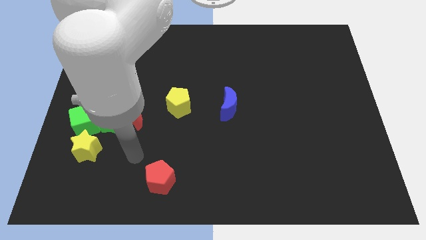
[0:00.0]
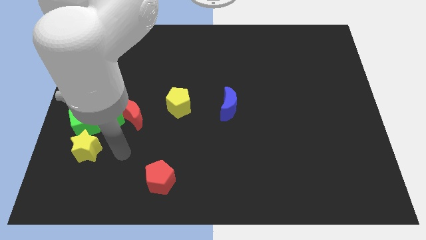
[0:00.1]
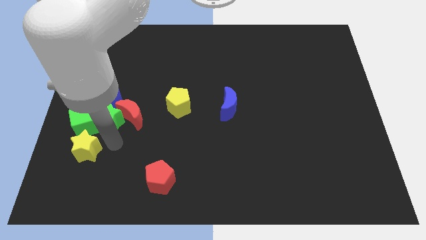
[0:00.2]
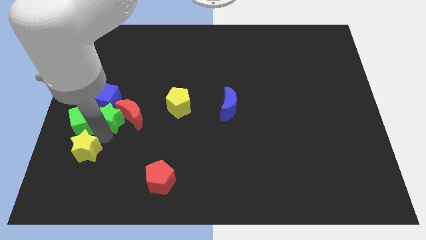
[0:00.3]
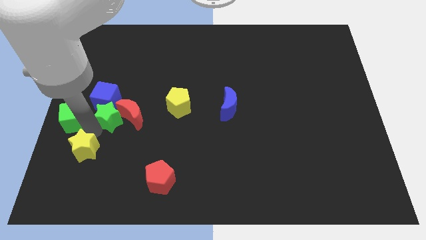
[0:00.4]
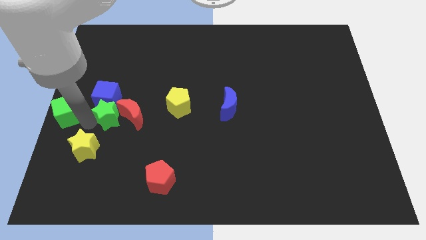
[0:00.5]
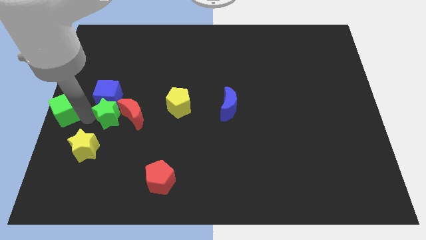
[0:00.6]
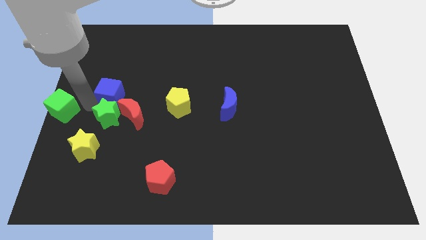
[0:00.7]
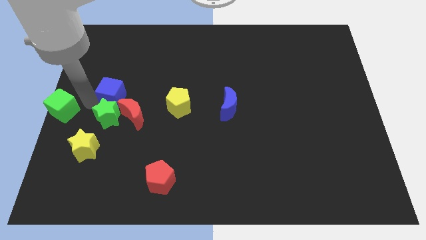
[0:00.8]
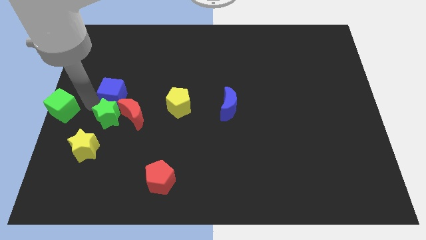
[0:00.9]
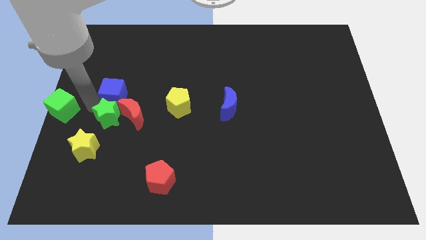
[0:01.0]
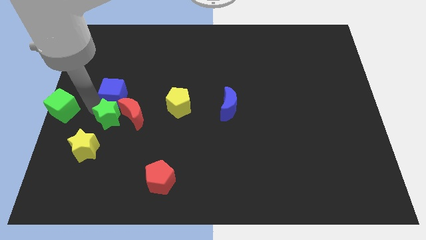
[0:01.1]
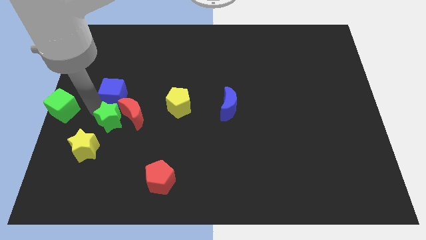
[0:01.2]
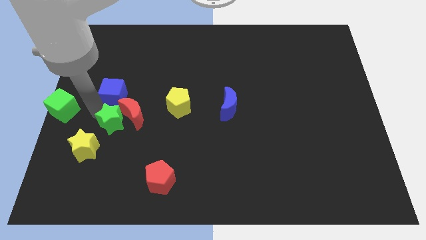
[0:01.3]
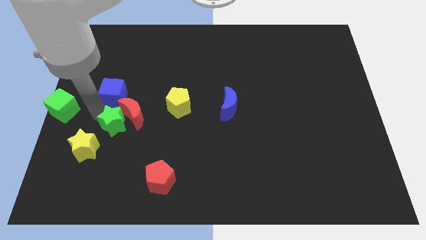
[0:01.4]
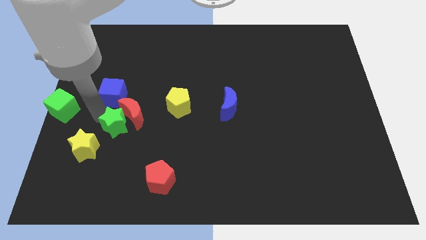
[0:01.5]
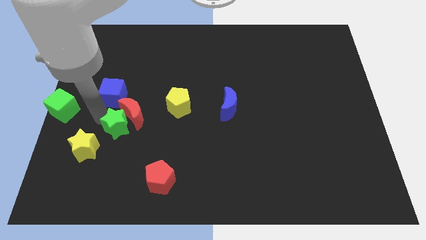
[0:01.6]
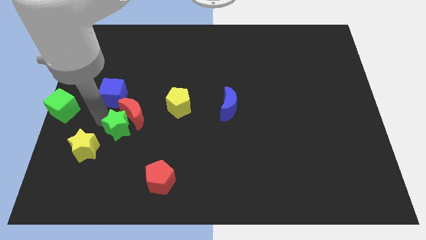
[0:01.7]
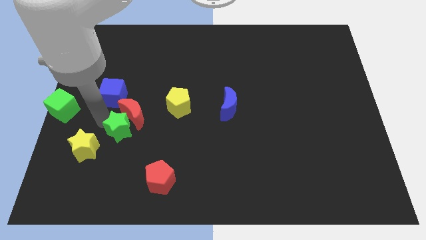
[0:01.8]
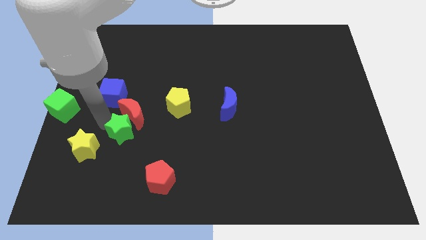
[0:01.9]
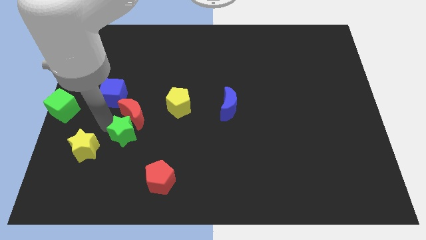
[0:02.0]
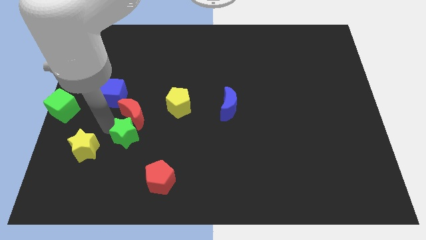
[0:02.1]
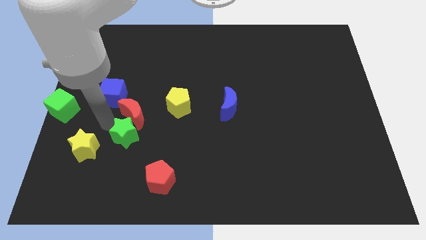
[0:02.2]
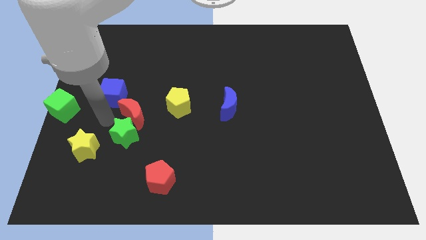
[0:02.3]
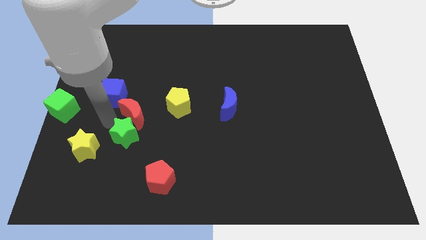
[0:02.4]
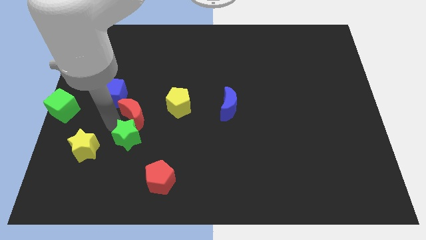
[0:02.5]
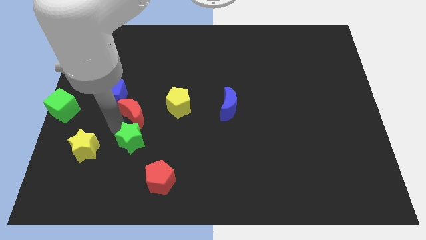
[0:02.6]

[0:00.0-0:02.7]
pull the green star apart from the group

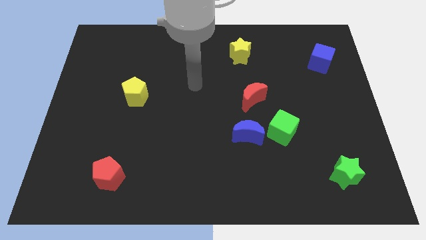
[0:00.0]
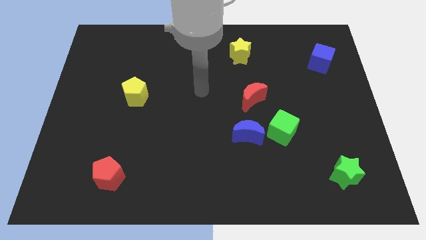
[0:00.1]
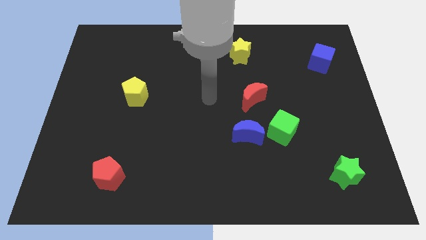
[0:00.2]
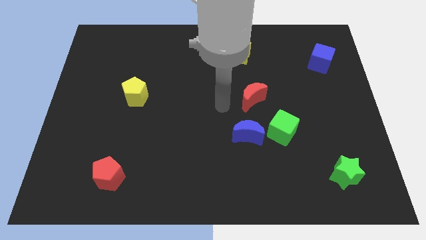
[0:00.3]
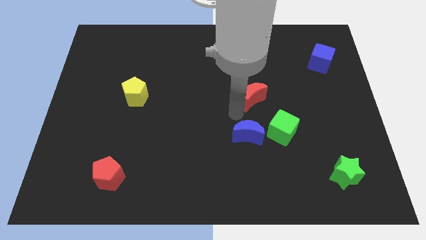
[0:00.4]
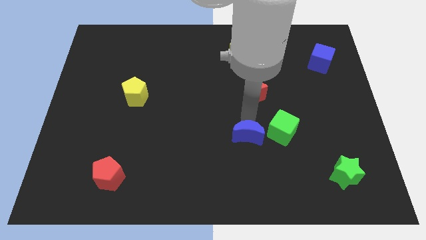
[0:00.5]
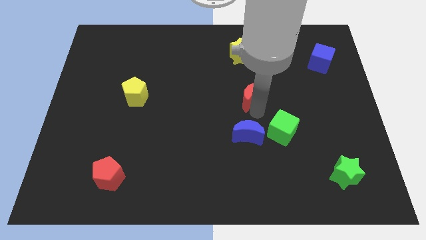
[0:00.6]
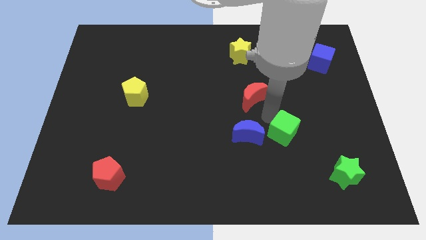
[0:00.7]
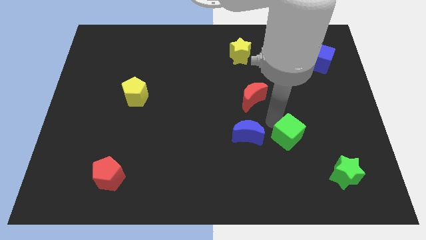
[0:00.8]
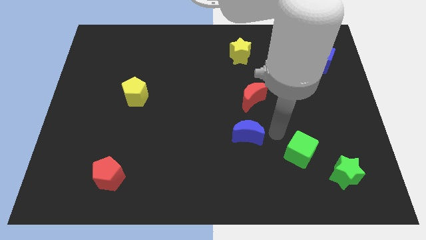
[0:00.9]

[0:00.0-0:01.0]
move the blue moon away from the green cube

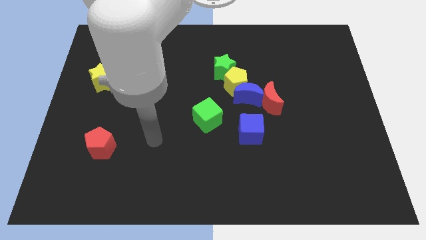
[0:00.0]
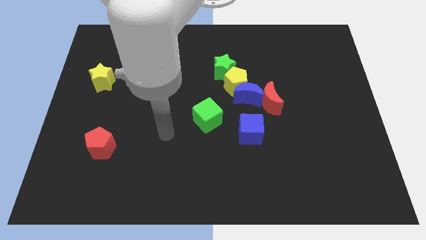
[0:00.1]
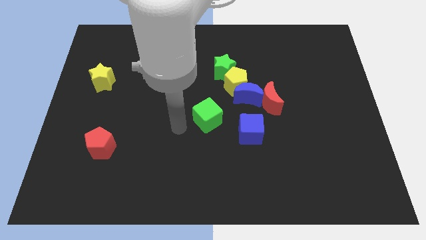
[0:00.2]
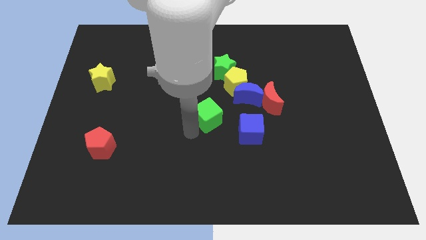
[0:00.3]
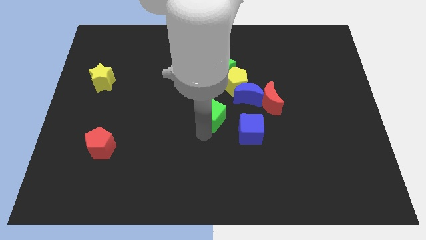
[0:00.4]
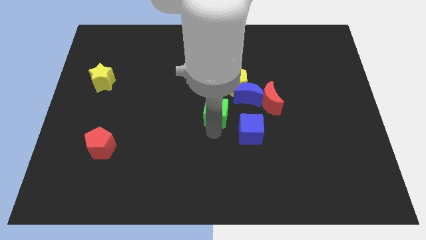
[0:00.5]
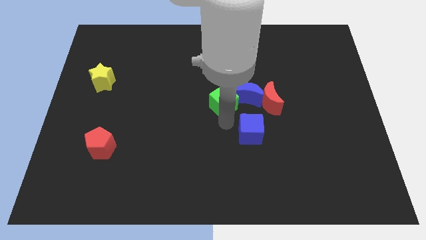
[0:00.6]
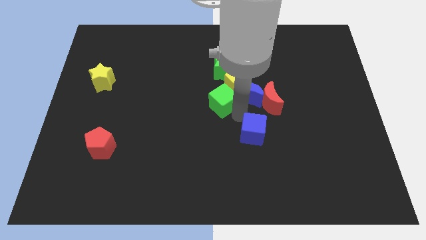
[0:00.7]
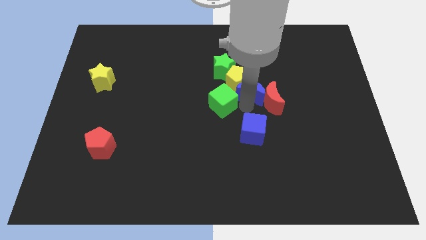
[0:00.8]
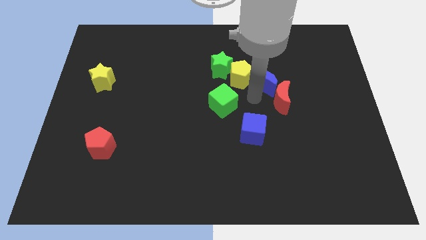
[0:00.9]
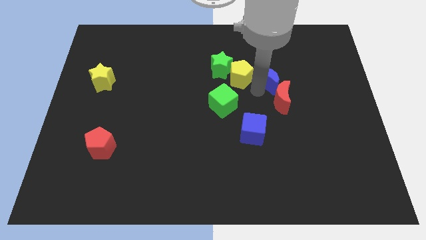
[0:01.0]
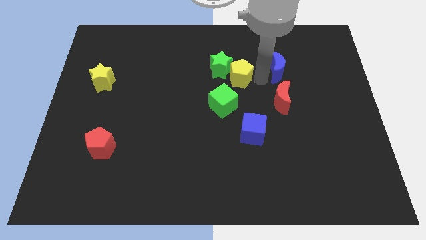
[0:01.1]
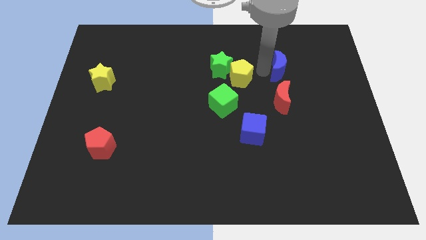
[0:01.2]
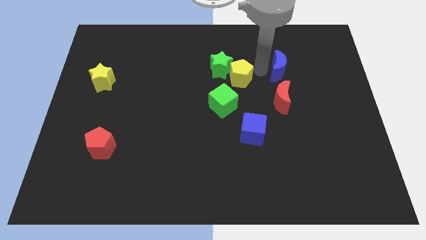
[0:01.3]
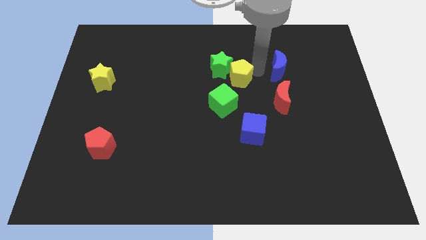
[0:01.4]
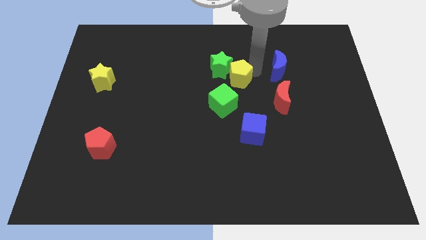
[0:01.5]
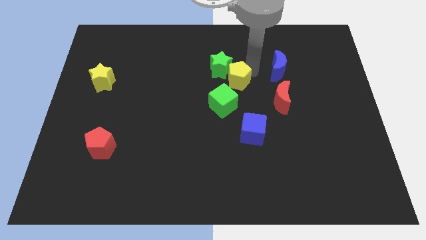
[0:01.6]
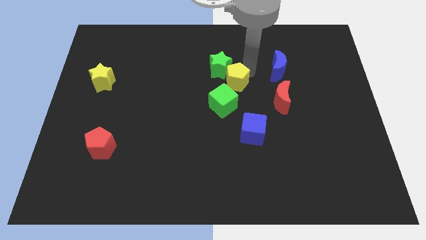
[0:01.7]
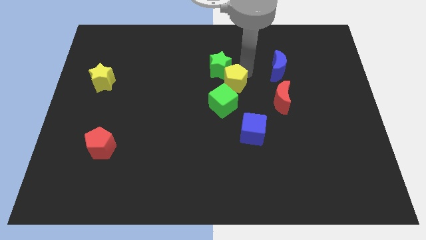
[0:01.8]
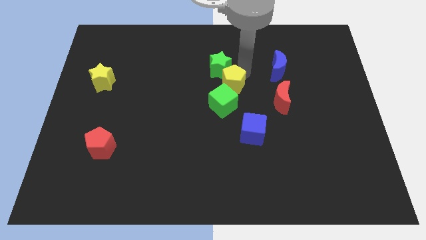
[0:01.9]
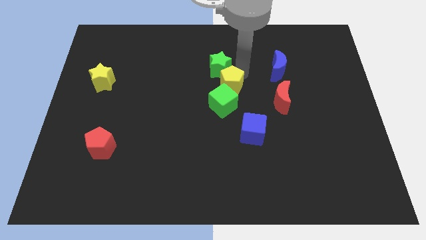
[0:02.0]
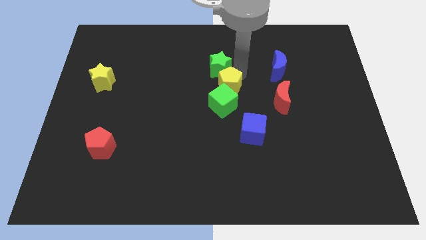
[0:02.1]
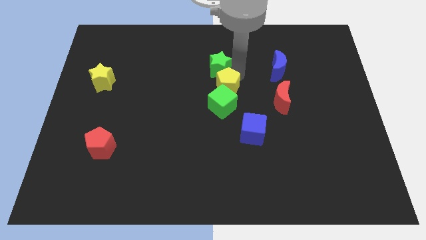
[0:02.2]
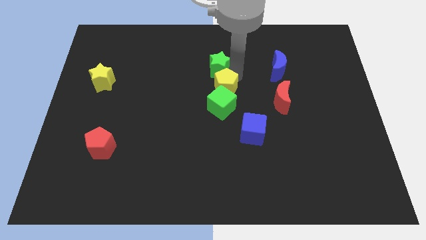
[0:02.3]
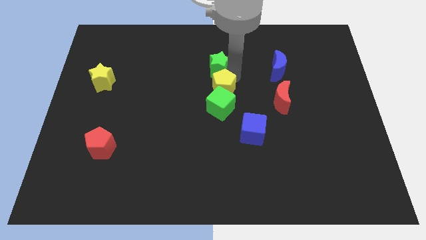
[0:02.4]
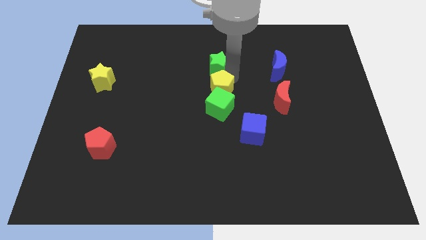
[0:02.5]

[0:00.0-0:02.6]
move the yellow pentagon away from the group

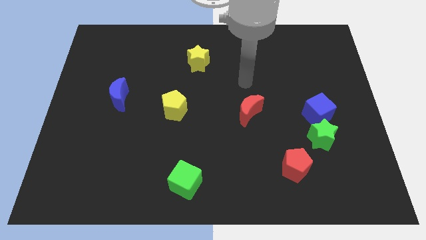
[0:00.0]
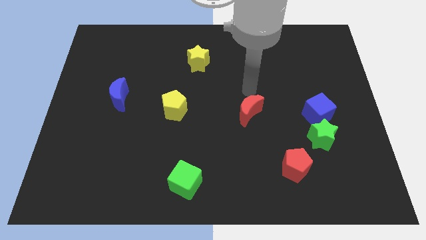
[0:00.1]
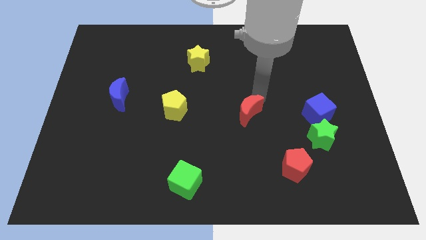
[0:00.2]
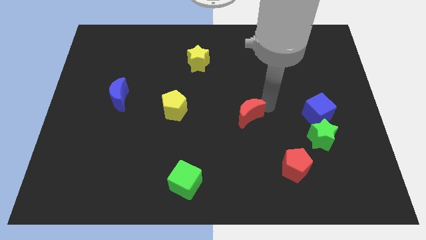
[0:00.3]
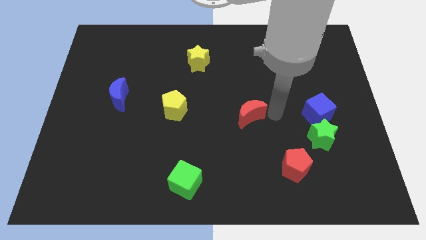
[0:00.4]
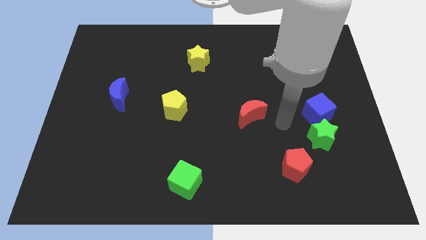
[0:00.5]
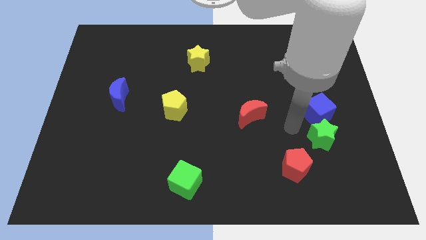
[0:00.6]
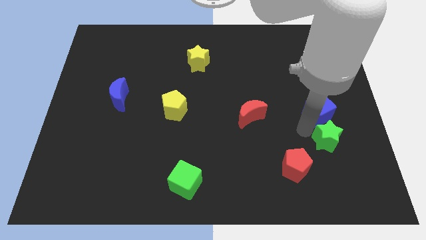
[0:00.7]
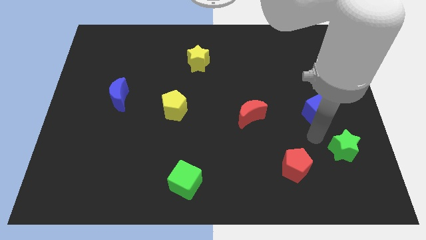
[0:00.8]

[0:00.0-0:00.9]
pull the blue cube apart from the green star

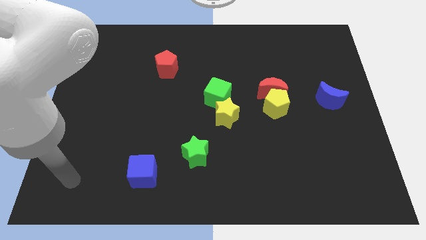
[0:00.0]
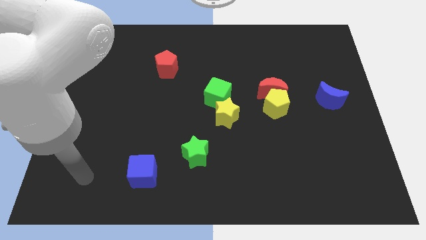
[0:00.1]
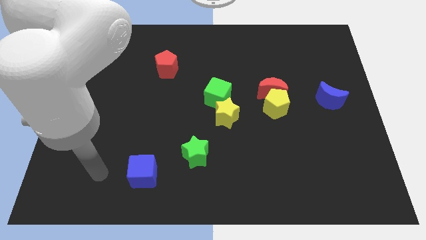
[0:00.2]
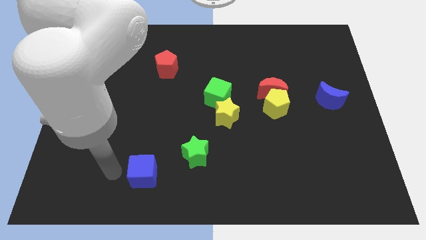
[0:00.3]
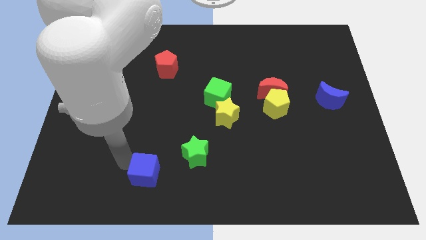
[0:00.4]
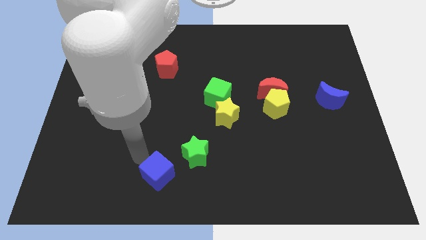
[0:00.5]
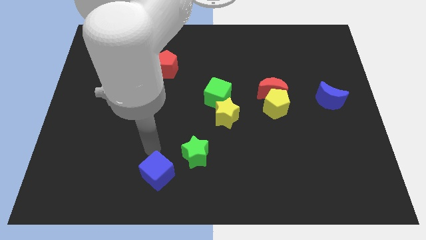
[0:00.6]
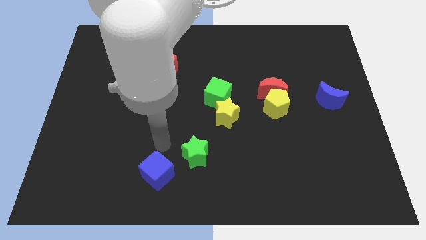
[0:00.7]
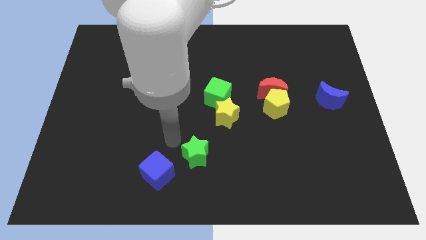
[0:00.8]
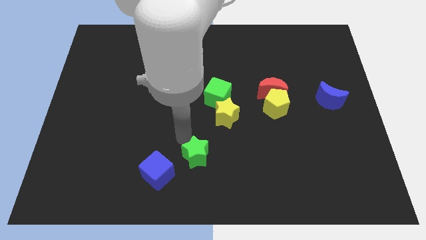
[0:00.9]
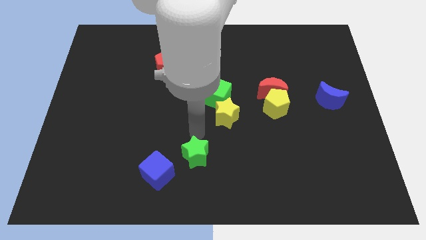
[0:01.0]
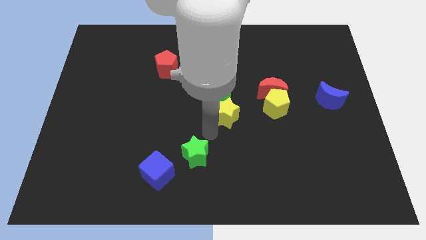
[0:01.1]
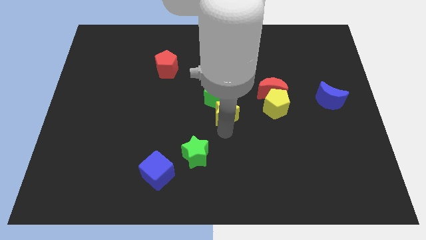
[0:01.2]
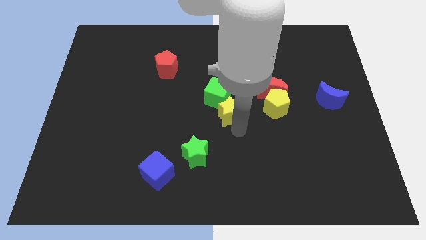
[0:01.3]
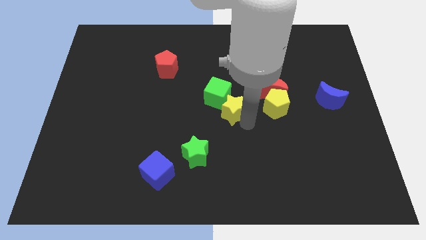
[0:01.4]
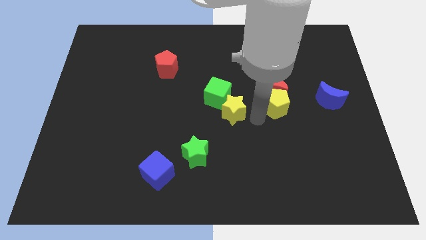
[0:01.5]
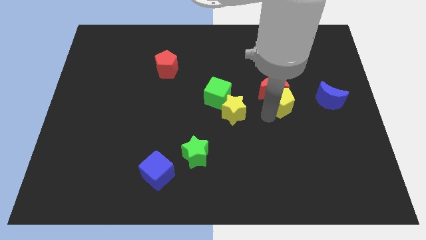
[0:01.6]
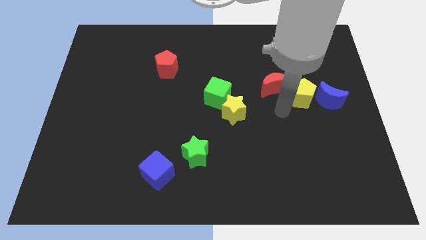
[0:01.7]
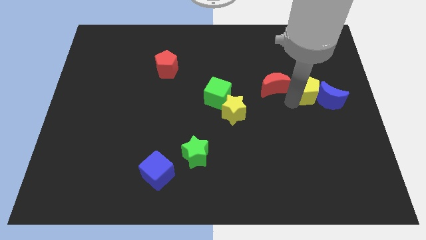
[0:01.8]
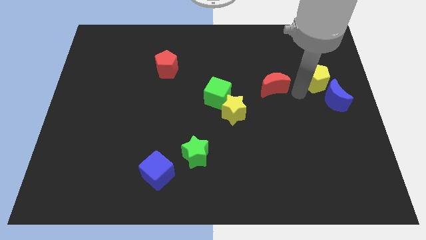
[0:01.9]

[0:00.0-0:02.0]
move the red moon away from the yellow pentagon

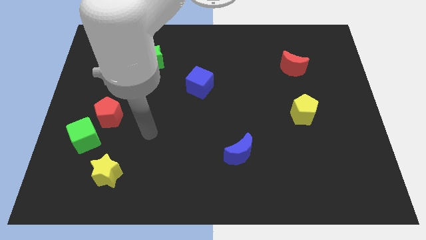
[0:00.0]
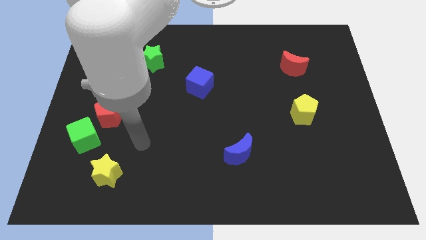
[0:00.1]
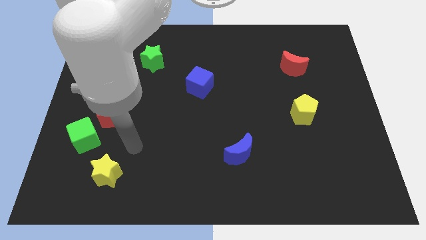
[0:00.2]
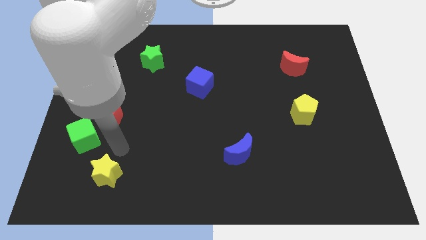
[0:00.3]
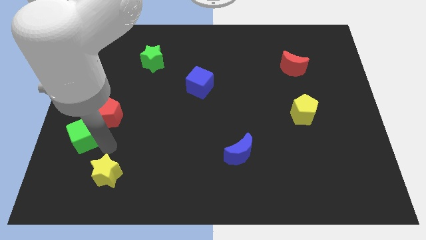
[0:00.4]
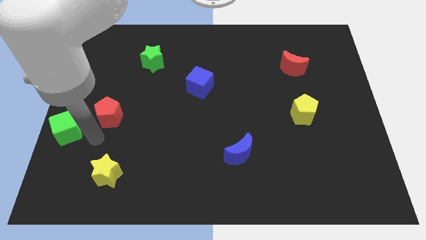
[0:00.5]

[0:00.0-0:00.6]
move the red pentagon away from the green cube
